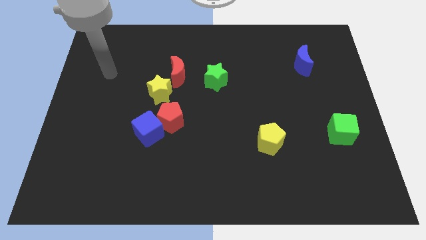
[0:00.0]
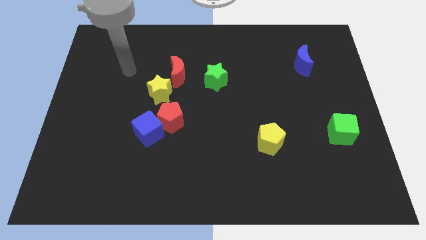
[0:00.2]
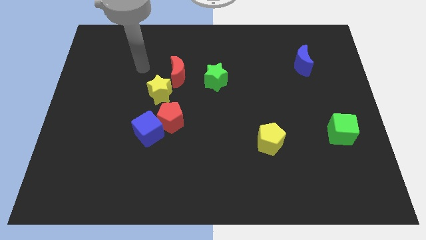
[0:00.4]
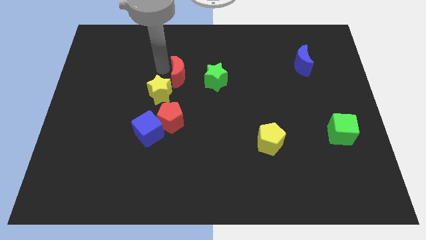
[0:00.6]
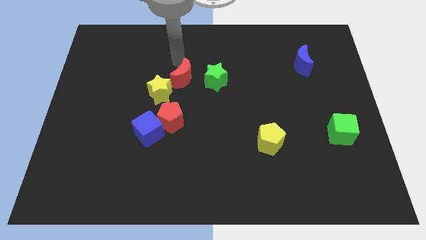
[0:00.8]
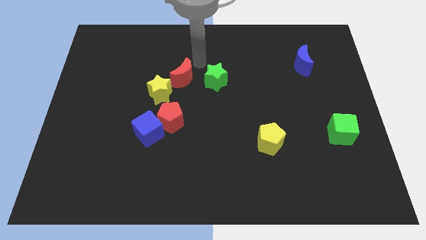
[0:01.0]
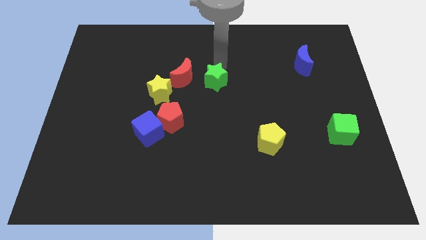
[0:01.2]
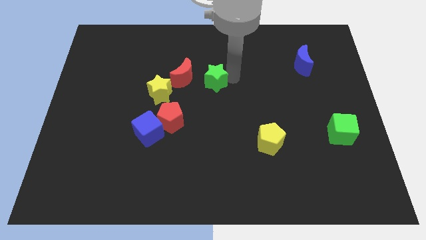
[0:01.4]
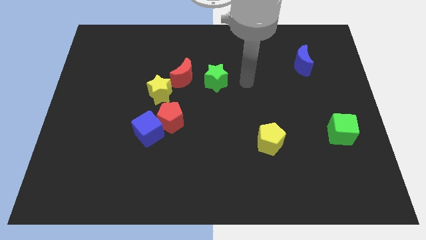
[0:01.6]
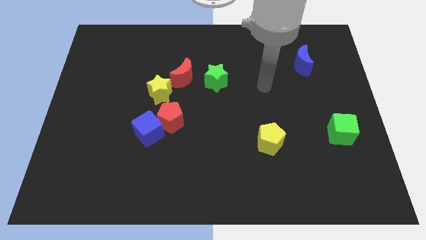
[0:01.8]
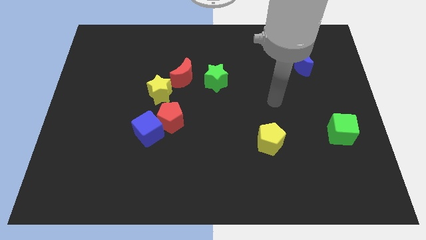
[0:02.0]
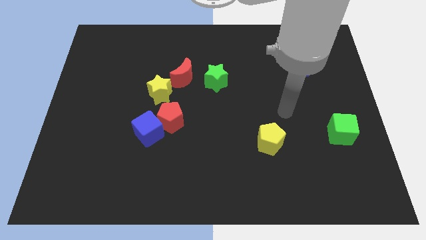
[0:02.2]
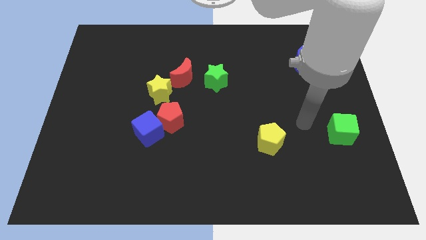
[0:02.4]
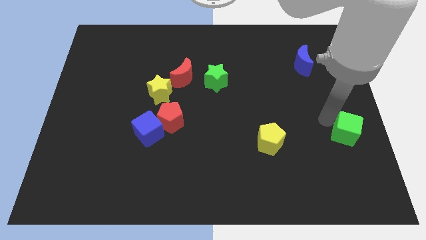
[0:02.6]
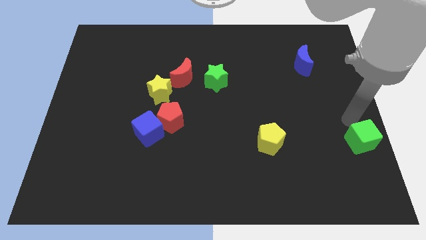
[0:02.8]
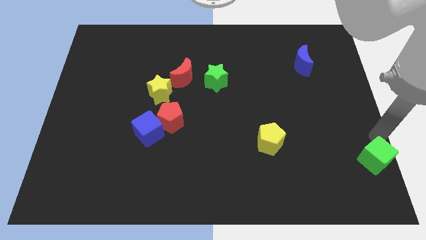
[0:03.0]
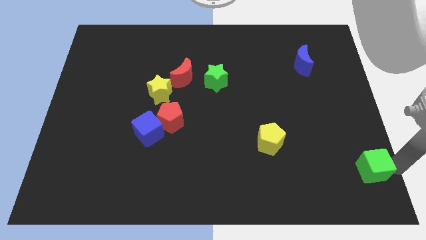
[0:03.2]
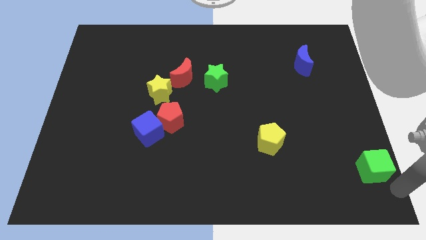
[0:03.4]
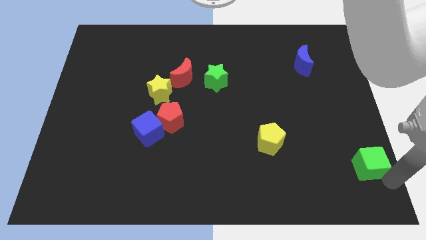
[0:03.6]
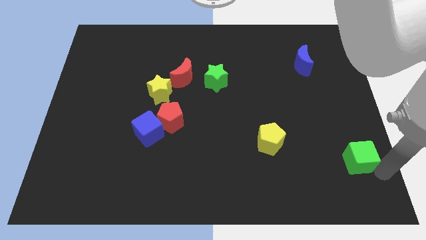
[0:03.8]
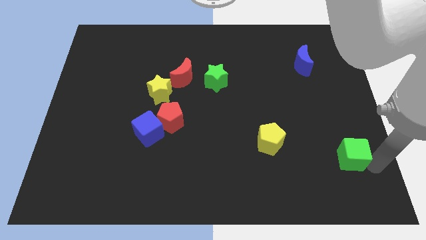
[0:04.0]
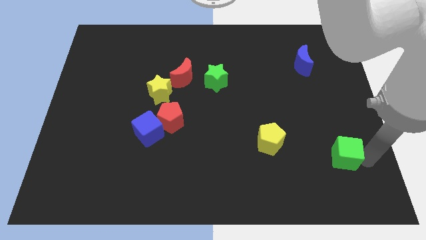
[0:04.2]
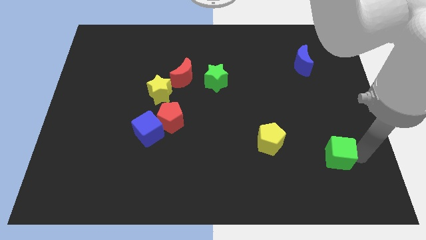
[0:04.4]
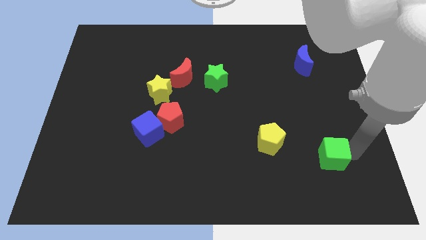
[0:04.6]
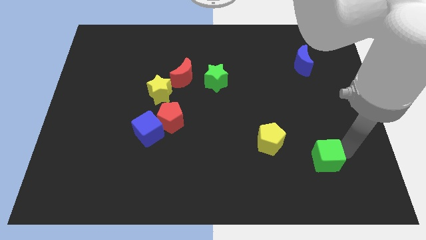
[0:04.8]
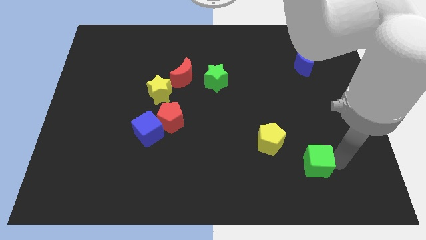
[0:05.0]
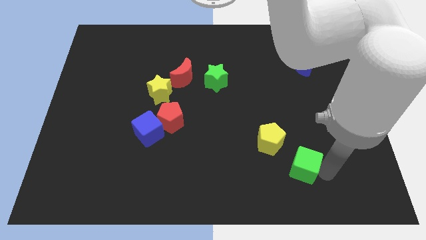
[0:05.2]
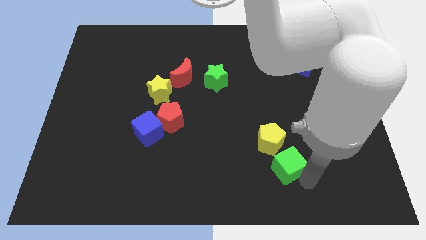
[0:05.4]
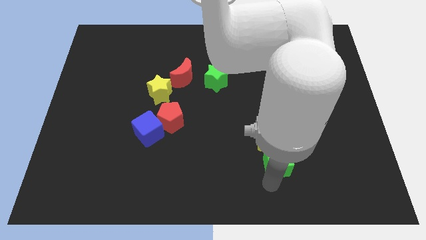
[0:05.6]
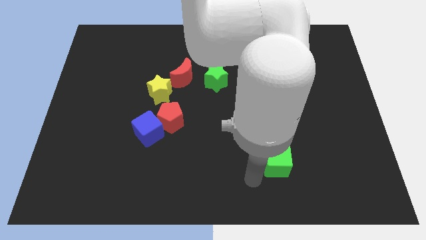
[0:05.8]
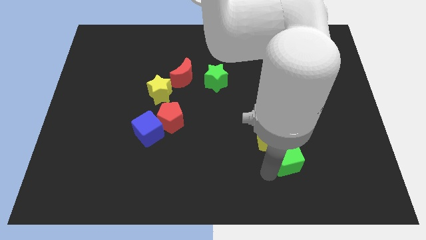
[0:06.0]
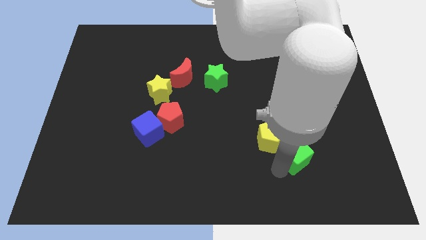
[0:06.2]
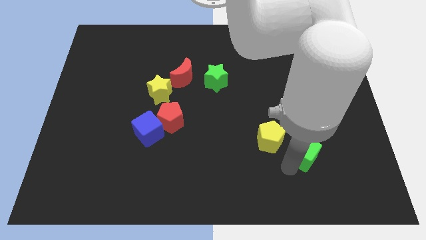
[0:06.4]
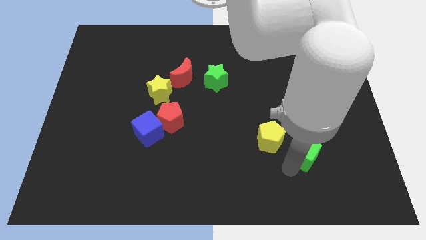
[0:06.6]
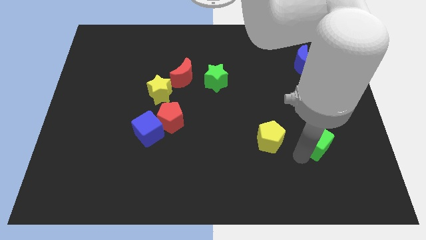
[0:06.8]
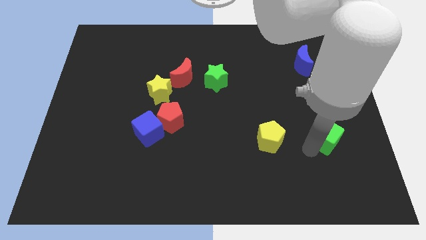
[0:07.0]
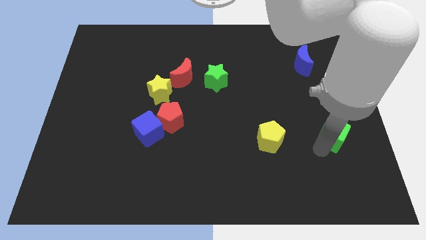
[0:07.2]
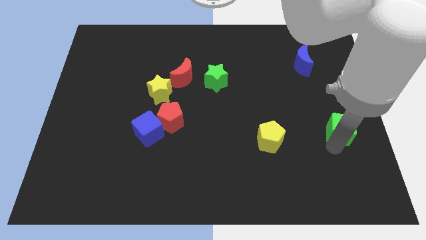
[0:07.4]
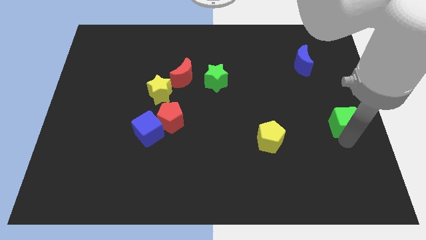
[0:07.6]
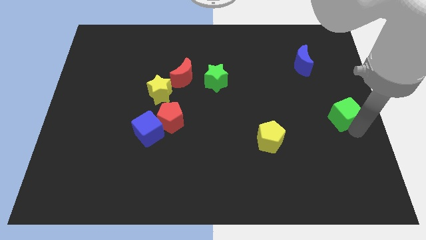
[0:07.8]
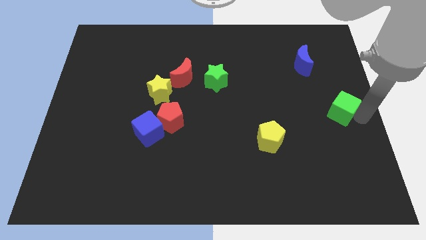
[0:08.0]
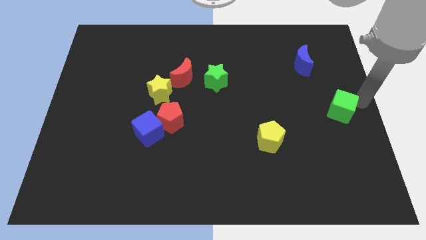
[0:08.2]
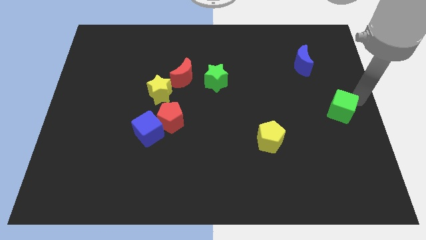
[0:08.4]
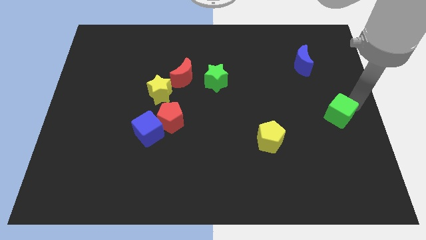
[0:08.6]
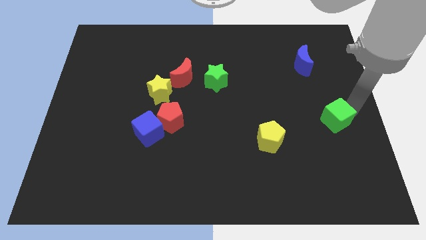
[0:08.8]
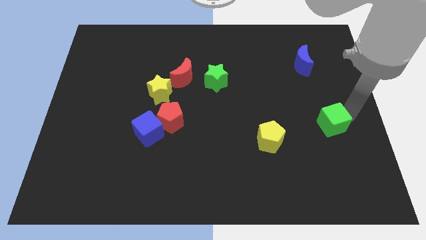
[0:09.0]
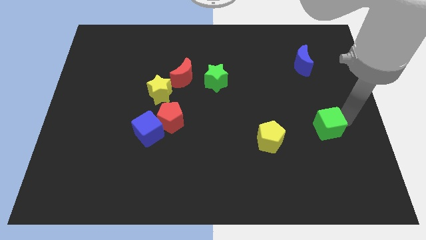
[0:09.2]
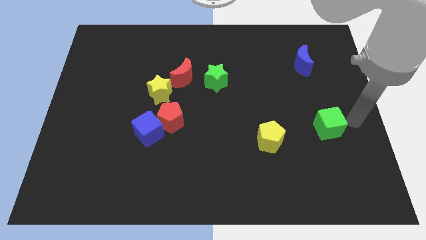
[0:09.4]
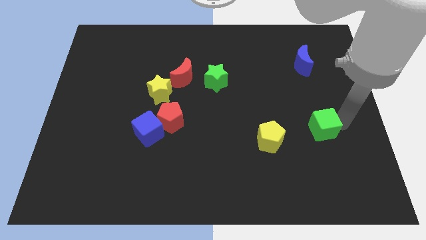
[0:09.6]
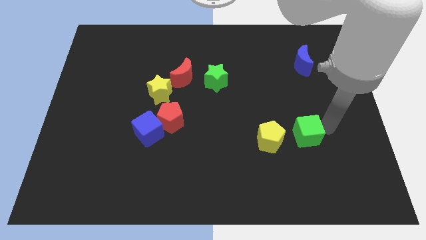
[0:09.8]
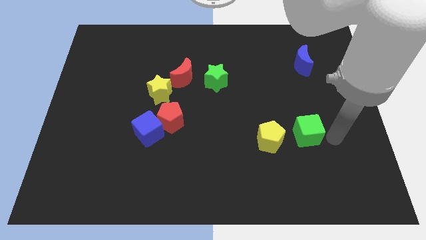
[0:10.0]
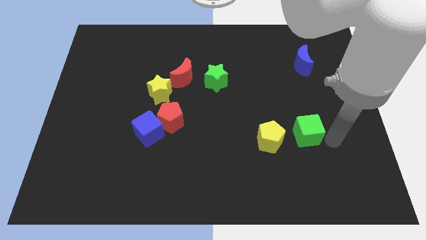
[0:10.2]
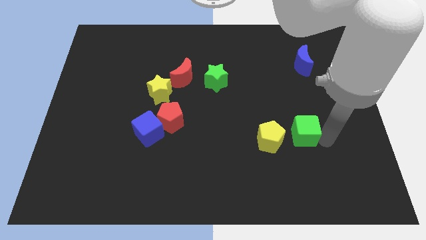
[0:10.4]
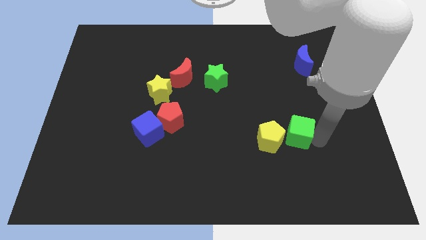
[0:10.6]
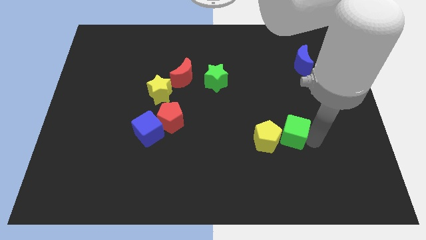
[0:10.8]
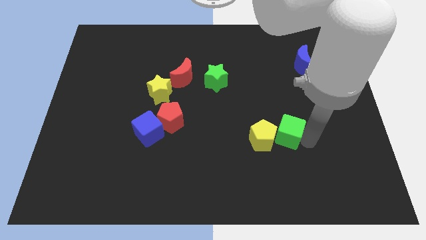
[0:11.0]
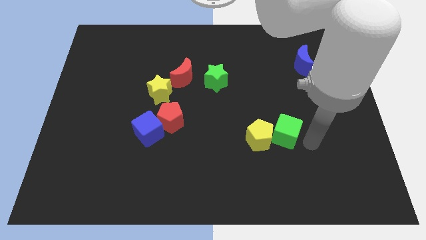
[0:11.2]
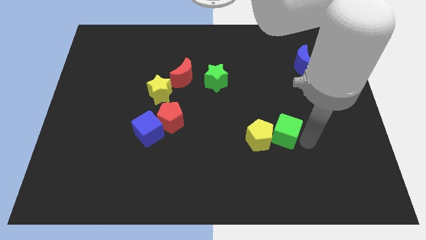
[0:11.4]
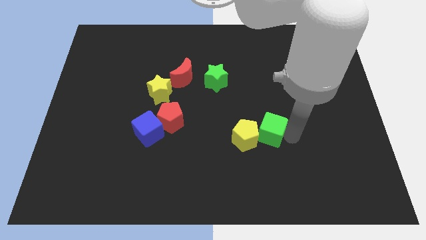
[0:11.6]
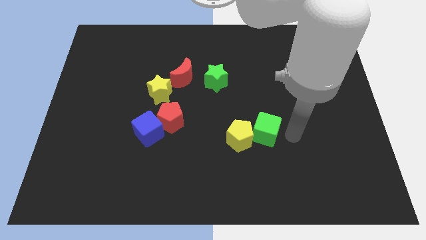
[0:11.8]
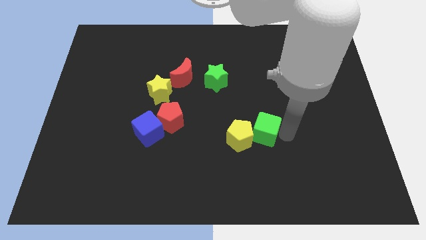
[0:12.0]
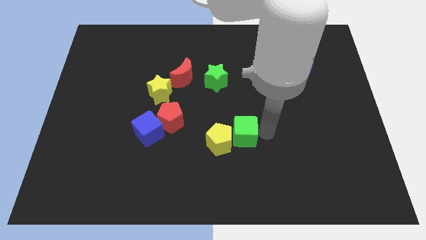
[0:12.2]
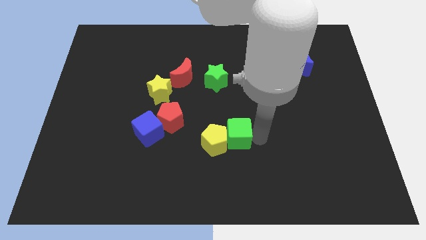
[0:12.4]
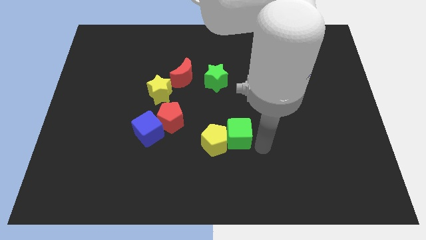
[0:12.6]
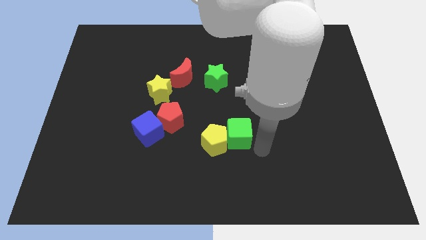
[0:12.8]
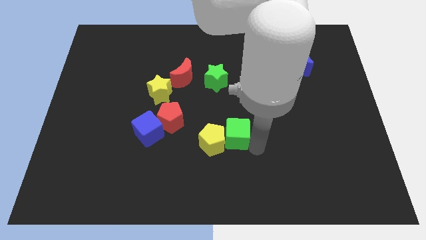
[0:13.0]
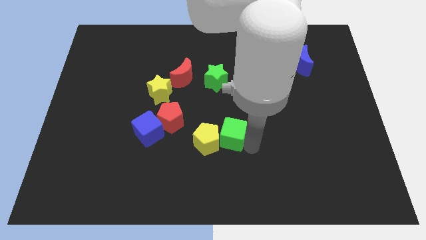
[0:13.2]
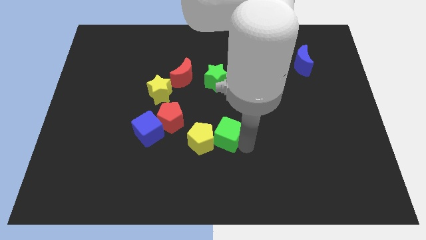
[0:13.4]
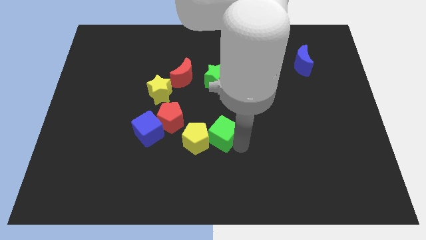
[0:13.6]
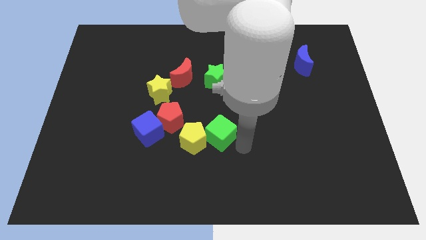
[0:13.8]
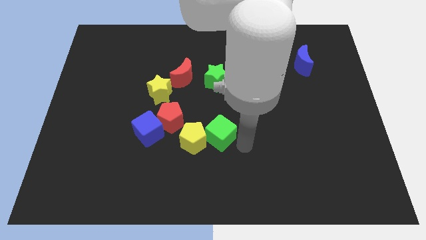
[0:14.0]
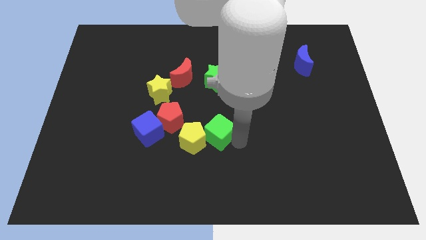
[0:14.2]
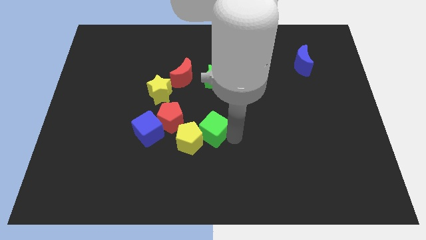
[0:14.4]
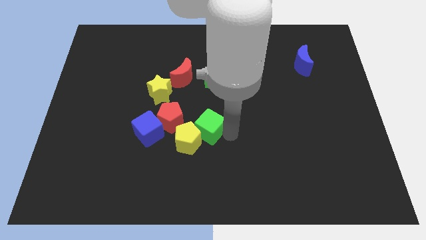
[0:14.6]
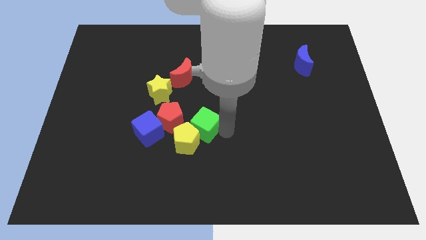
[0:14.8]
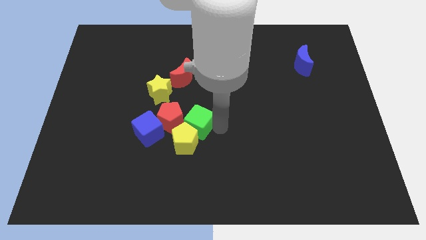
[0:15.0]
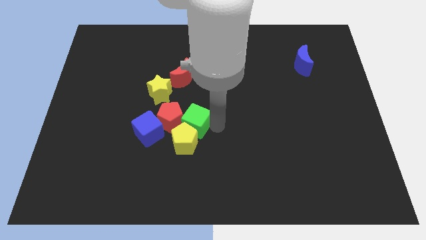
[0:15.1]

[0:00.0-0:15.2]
push the green cube close to the red pentagon
